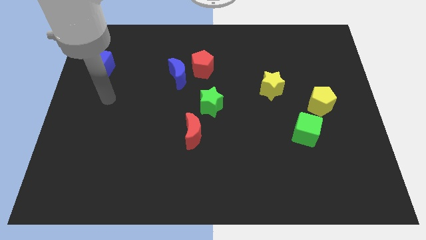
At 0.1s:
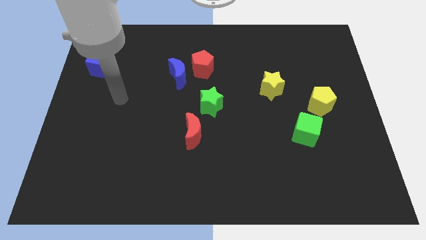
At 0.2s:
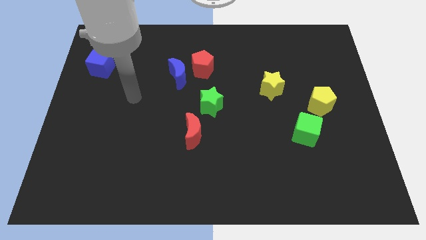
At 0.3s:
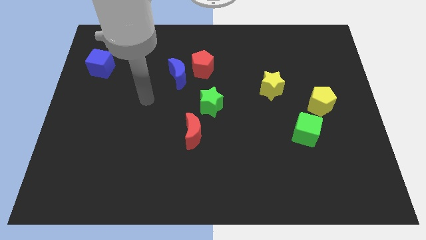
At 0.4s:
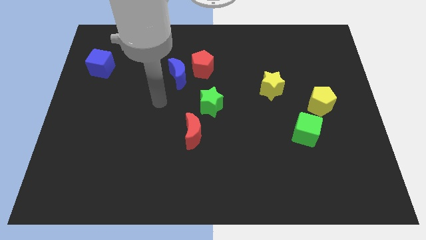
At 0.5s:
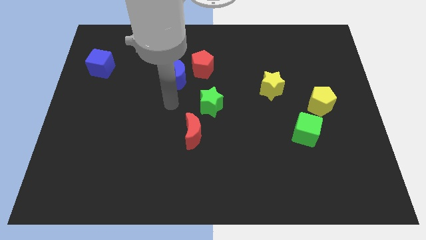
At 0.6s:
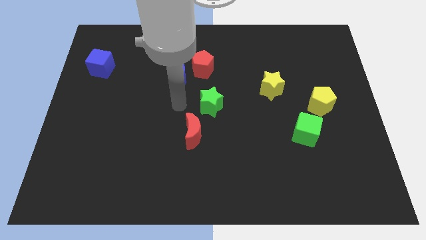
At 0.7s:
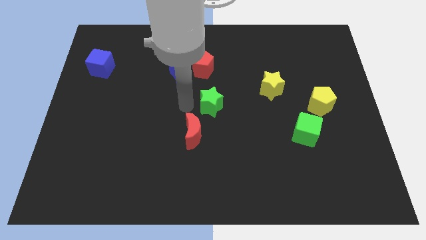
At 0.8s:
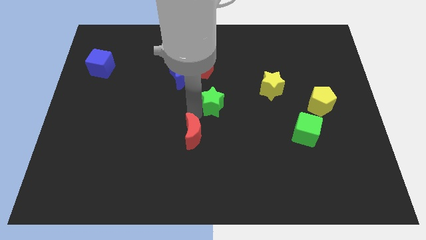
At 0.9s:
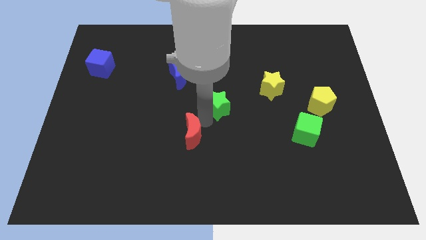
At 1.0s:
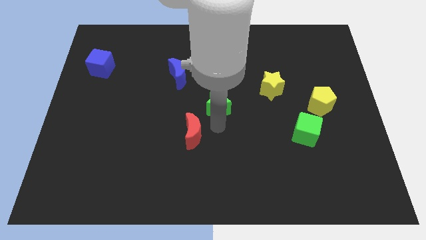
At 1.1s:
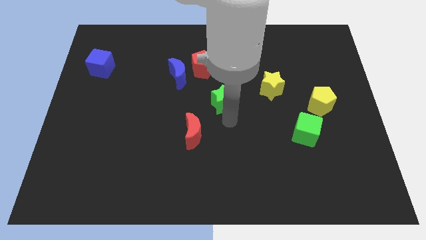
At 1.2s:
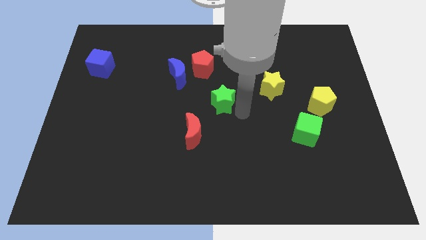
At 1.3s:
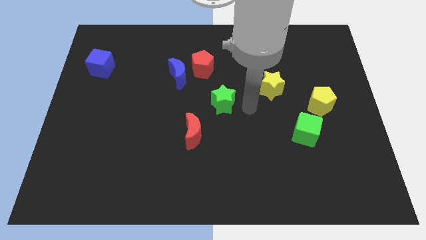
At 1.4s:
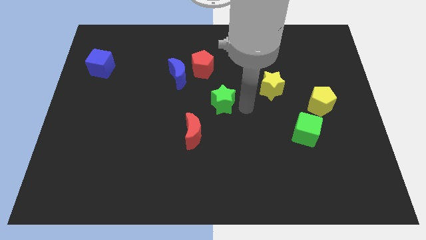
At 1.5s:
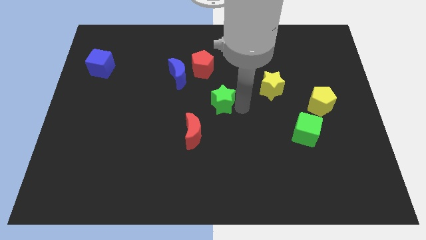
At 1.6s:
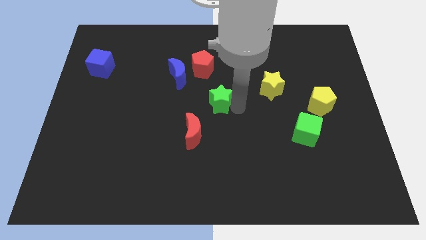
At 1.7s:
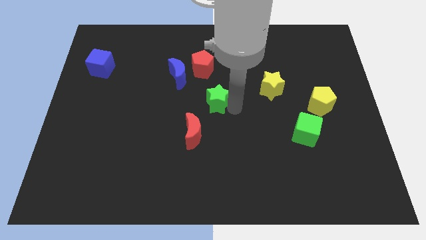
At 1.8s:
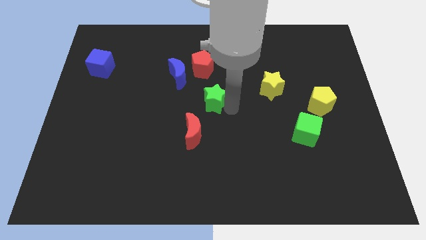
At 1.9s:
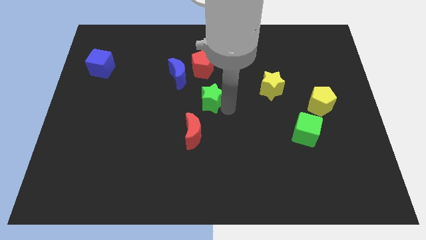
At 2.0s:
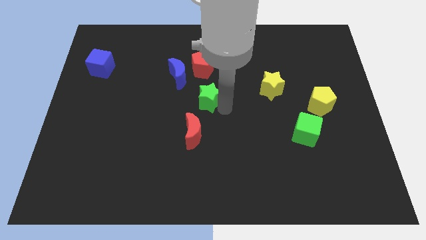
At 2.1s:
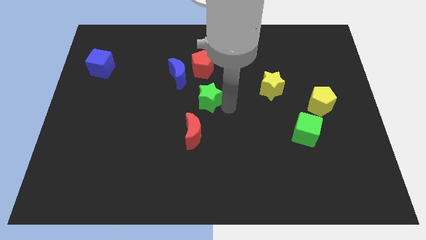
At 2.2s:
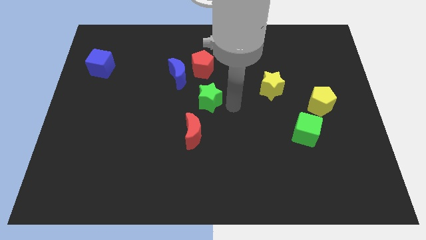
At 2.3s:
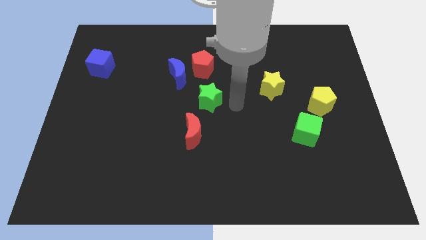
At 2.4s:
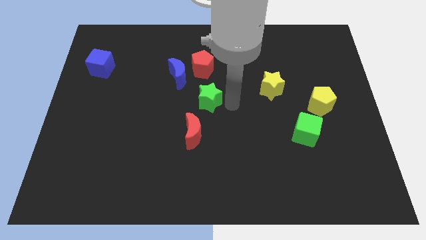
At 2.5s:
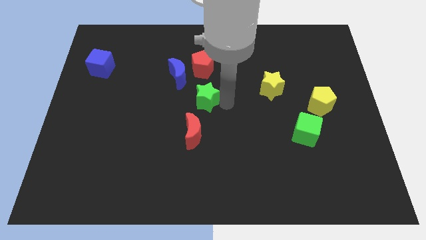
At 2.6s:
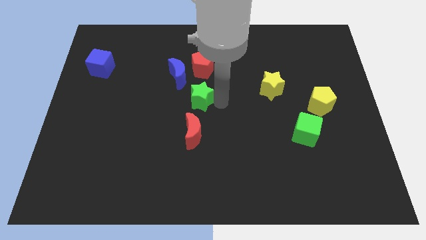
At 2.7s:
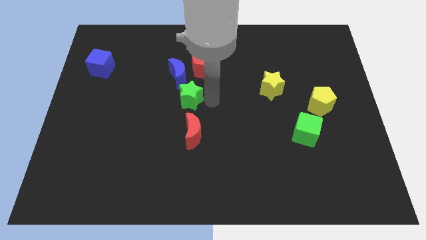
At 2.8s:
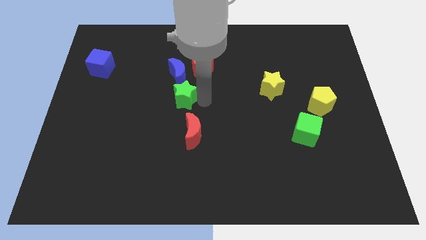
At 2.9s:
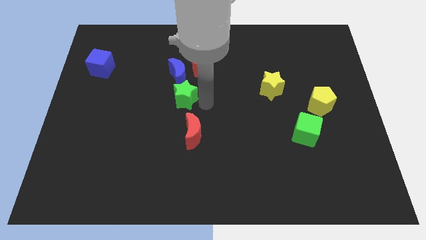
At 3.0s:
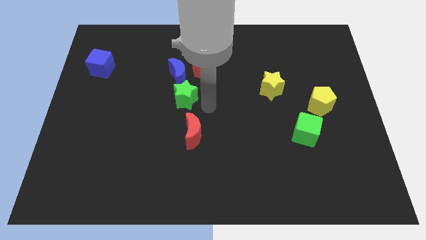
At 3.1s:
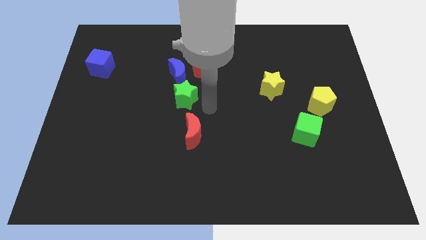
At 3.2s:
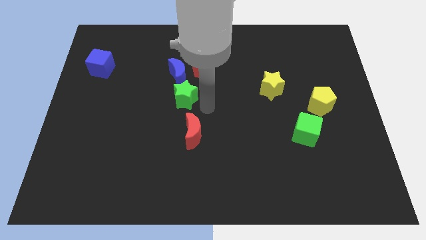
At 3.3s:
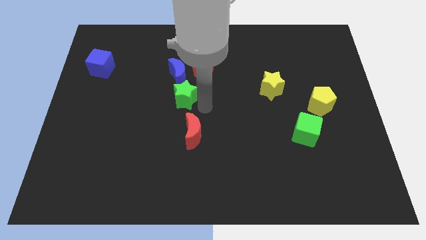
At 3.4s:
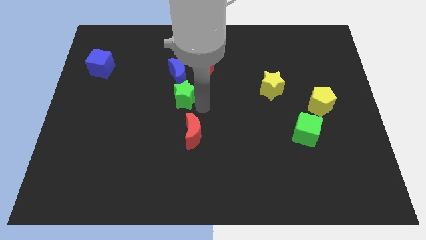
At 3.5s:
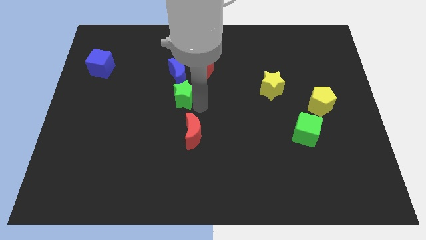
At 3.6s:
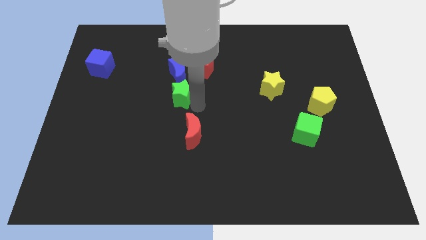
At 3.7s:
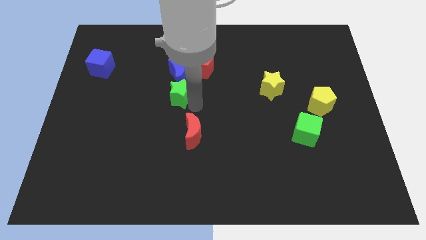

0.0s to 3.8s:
push the green star a little bit up and to the left

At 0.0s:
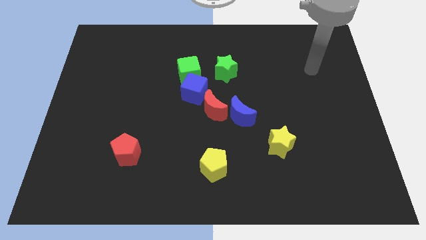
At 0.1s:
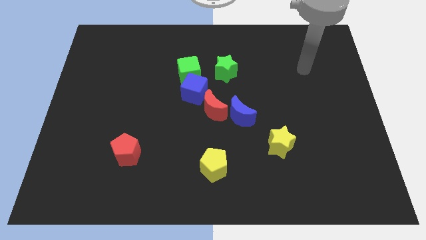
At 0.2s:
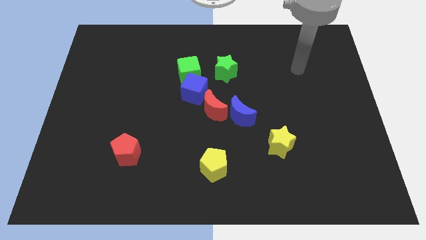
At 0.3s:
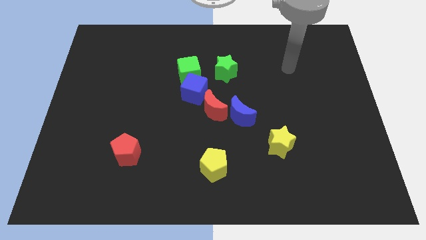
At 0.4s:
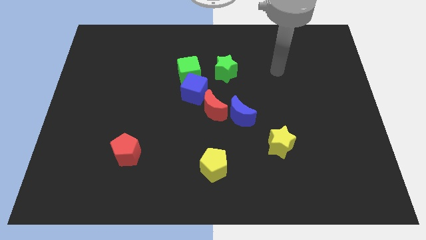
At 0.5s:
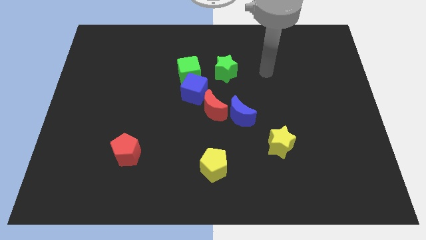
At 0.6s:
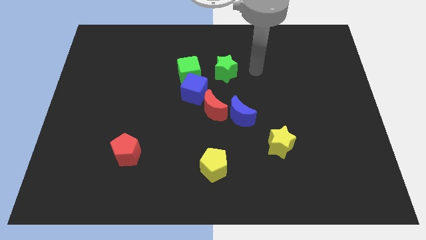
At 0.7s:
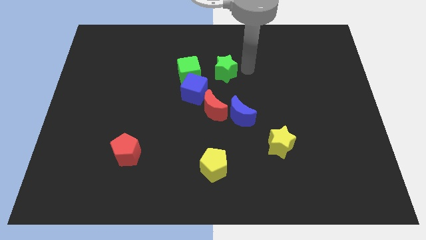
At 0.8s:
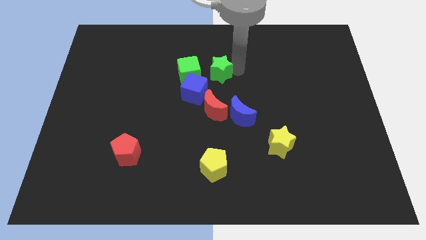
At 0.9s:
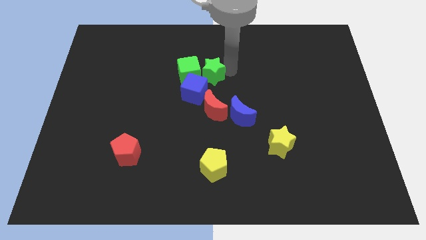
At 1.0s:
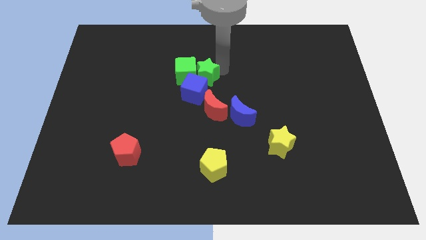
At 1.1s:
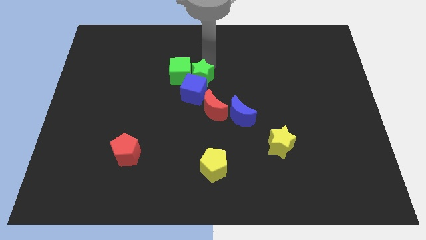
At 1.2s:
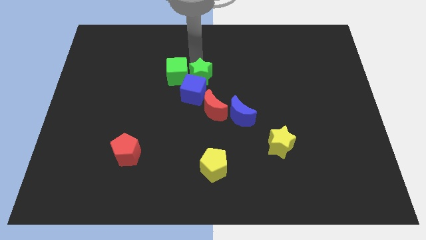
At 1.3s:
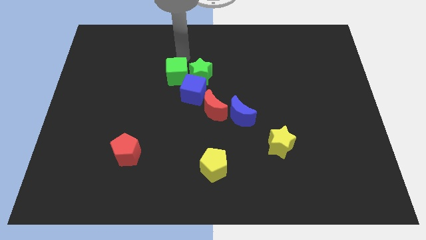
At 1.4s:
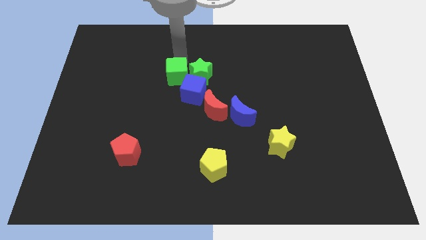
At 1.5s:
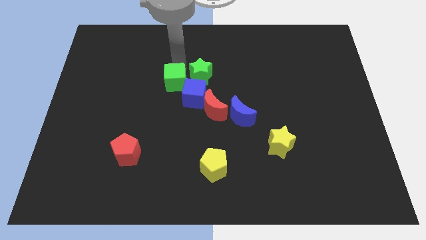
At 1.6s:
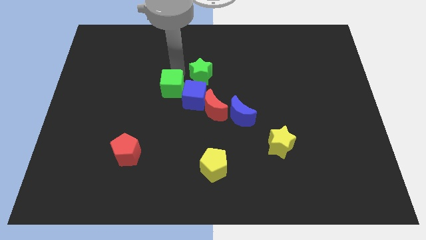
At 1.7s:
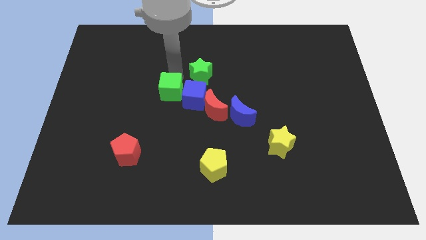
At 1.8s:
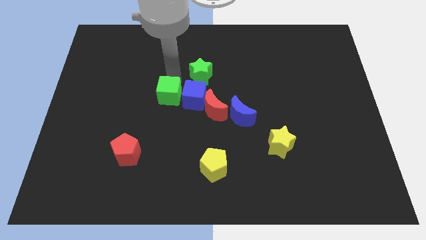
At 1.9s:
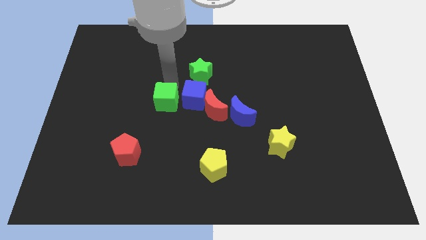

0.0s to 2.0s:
slightly move the green cube down

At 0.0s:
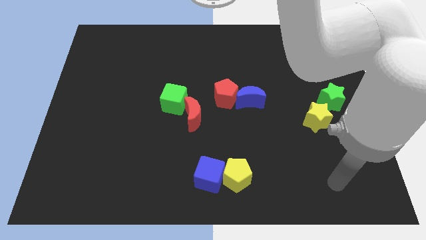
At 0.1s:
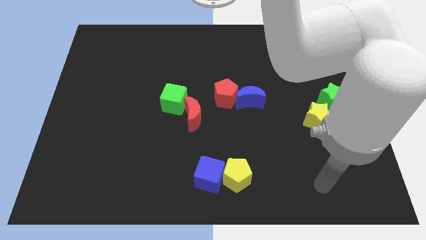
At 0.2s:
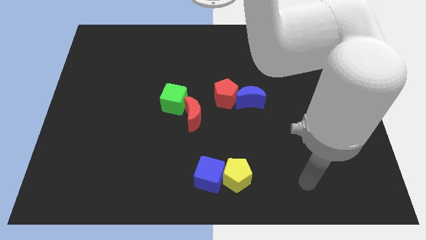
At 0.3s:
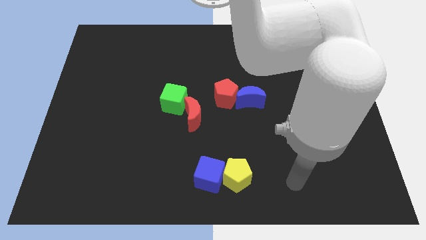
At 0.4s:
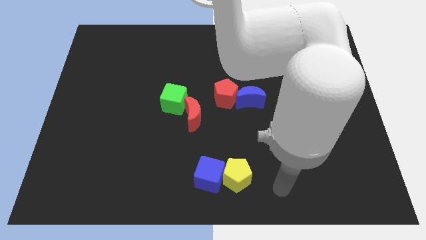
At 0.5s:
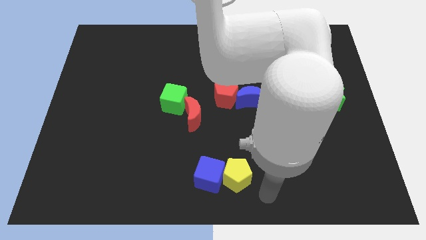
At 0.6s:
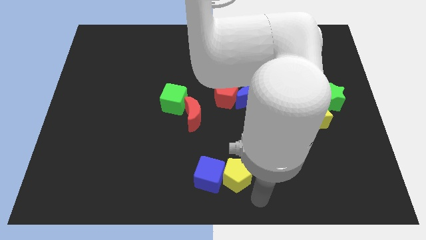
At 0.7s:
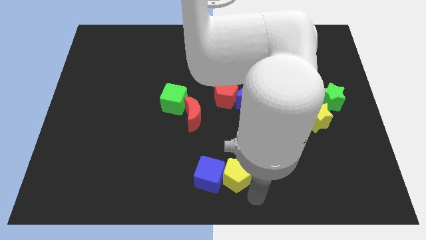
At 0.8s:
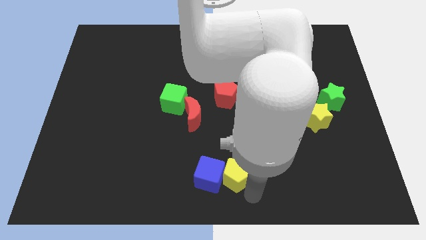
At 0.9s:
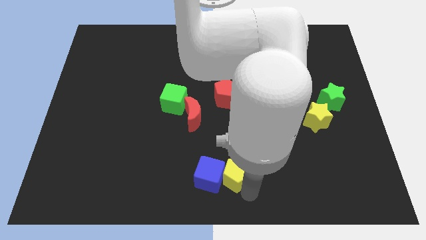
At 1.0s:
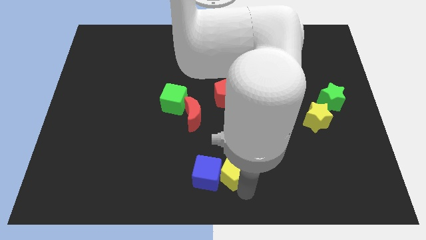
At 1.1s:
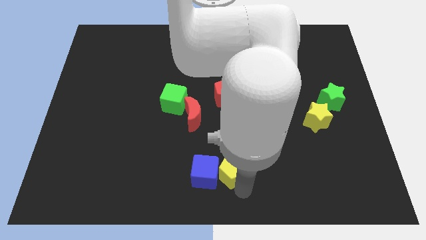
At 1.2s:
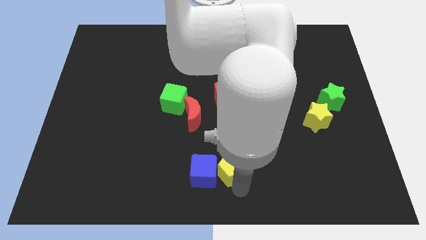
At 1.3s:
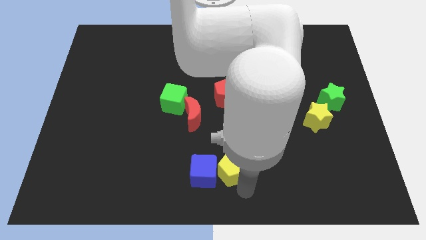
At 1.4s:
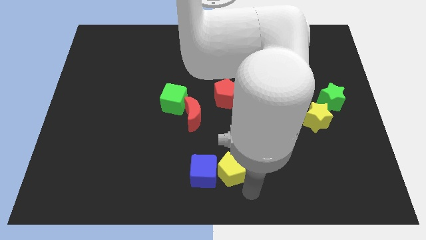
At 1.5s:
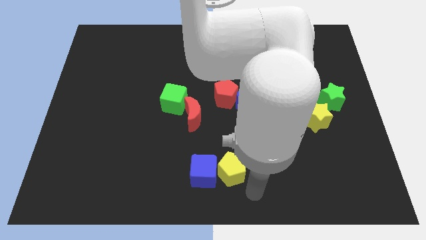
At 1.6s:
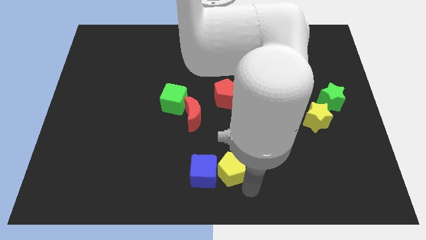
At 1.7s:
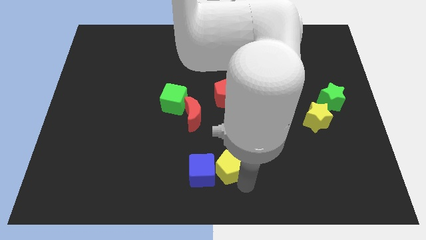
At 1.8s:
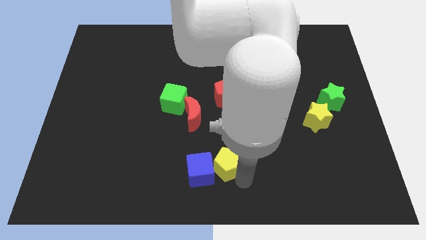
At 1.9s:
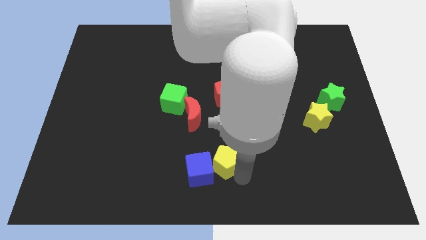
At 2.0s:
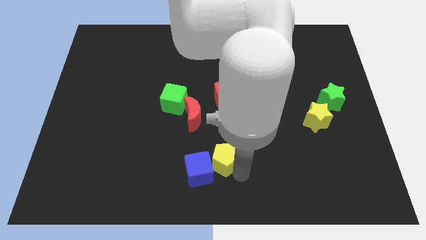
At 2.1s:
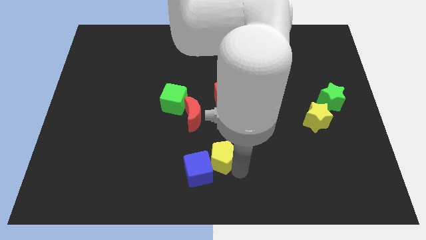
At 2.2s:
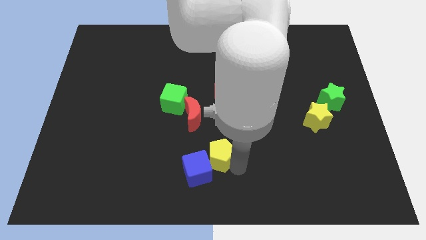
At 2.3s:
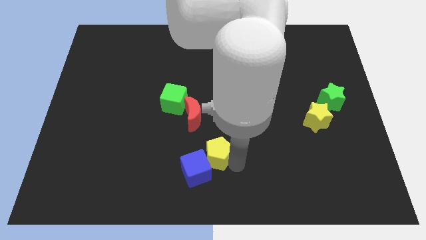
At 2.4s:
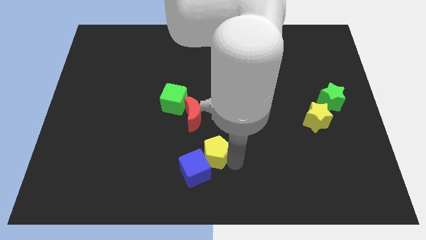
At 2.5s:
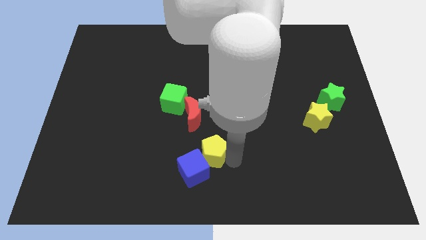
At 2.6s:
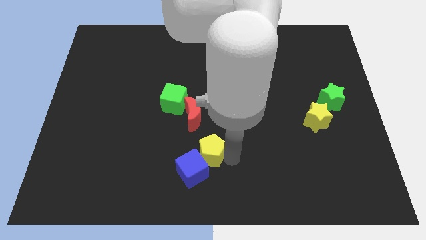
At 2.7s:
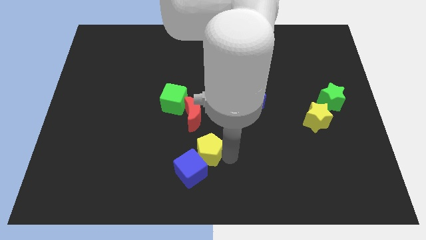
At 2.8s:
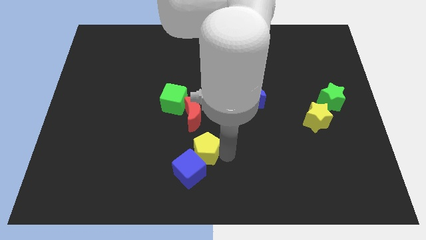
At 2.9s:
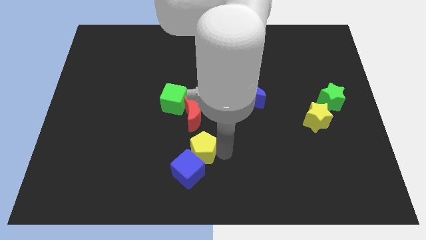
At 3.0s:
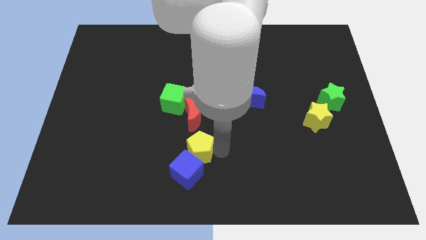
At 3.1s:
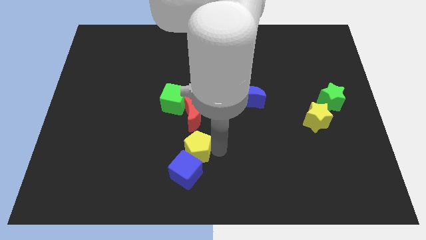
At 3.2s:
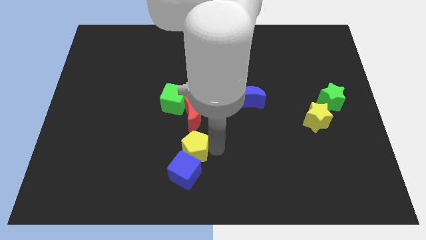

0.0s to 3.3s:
slightly move the yellow pentagon left
